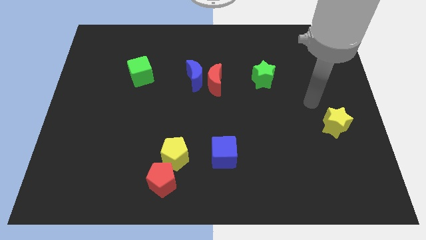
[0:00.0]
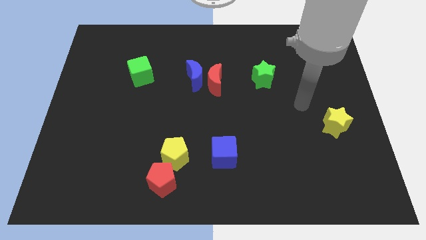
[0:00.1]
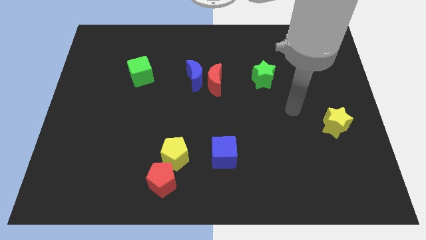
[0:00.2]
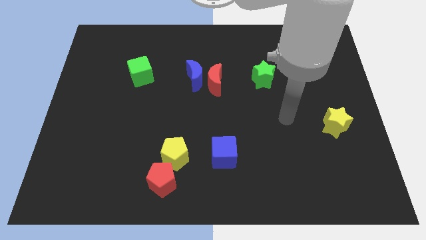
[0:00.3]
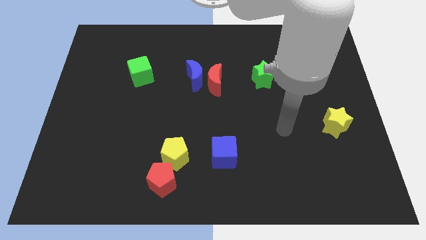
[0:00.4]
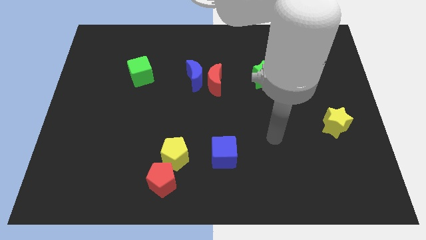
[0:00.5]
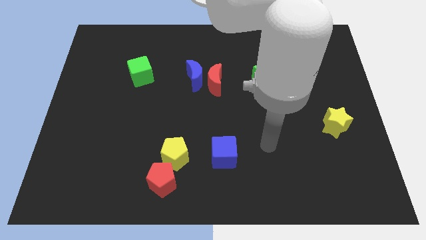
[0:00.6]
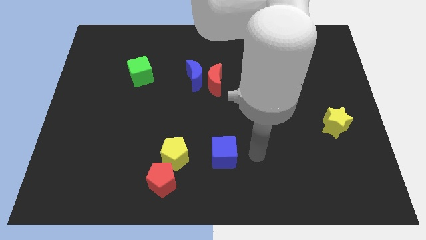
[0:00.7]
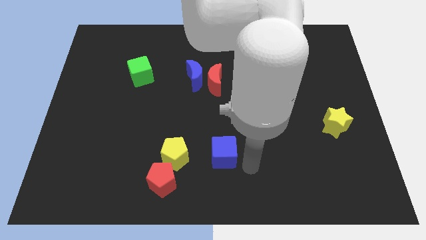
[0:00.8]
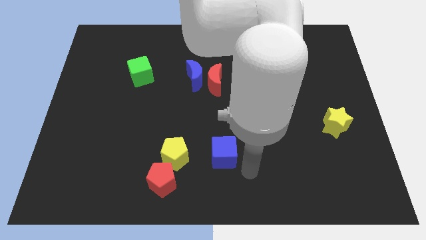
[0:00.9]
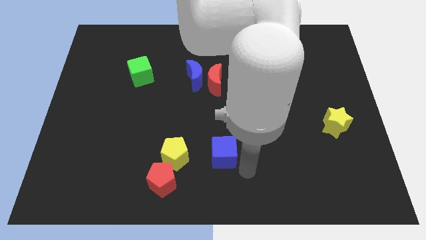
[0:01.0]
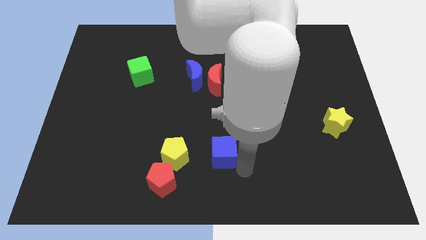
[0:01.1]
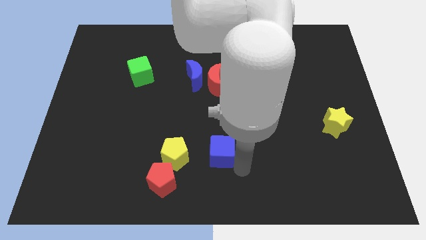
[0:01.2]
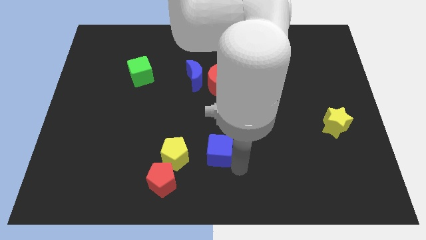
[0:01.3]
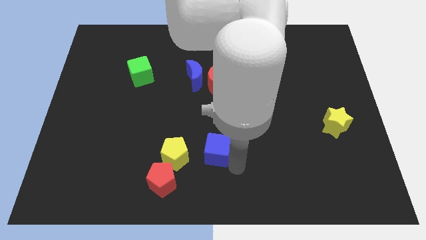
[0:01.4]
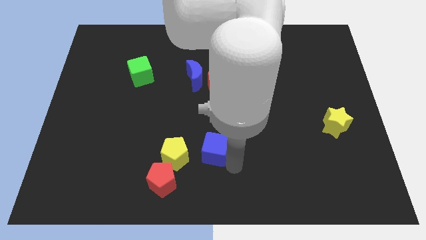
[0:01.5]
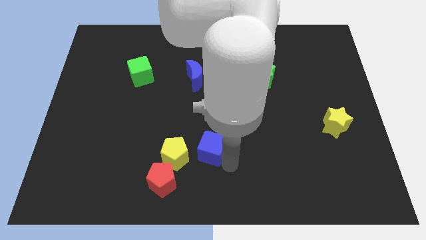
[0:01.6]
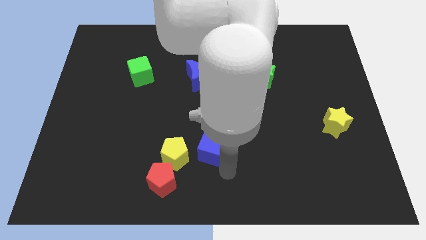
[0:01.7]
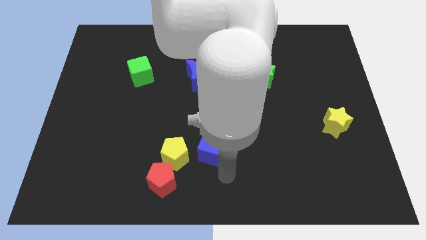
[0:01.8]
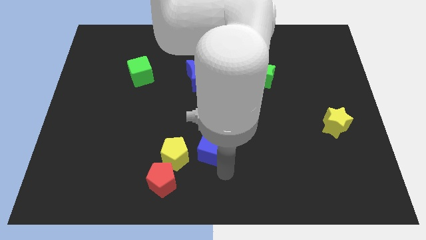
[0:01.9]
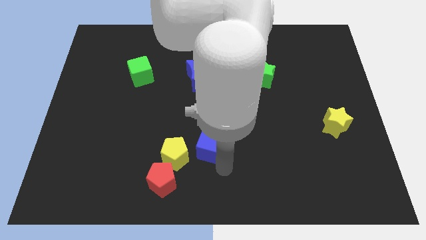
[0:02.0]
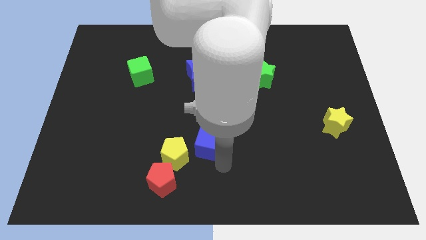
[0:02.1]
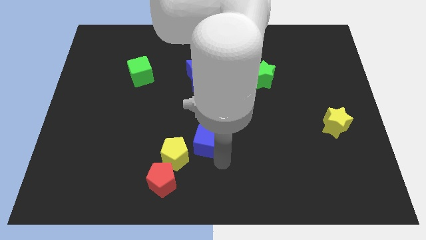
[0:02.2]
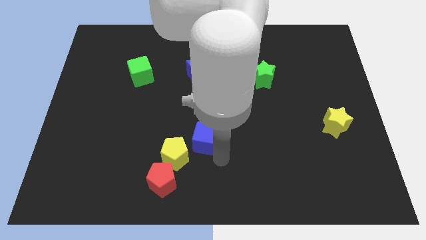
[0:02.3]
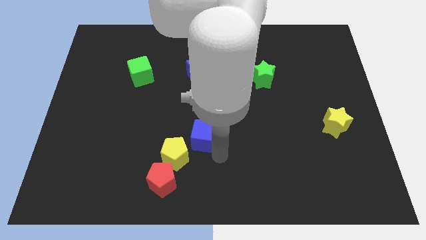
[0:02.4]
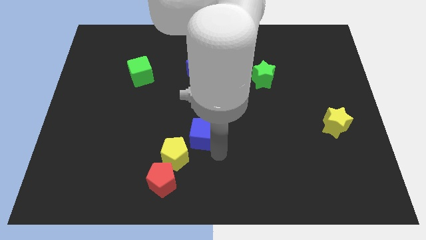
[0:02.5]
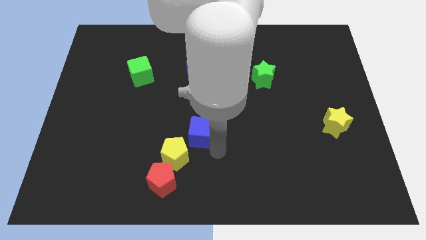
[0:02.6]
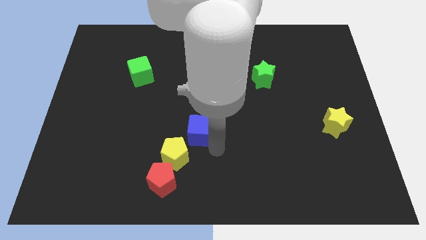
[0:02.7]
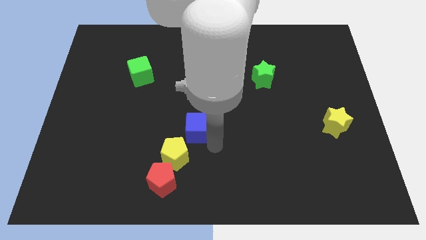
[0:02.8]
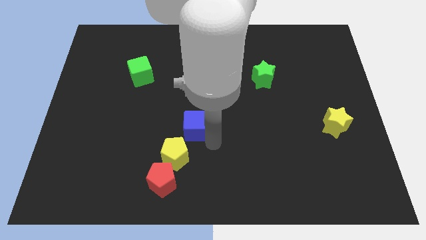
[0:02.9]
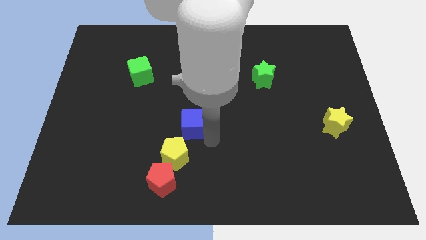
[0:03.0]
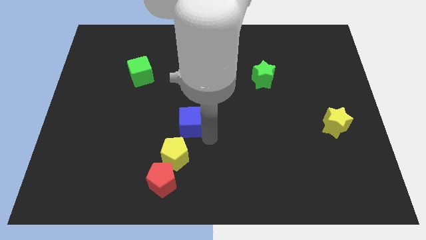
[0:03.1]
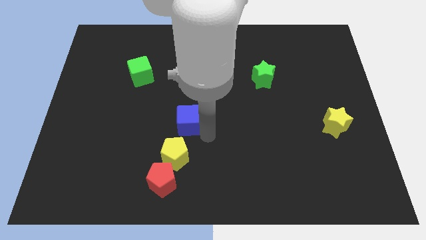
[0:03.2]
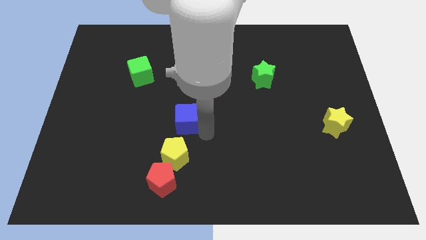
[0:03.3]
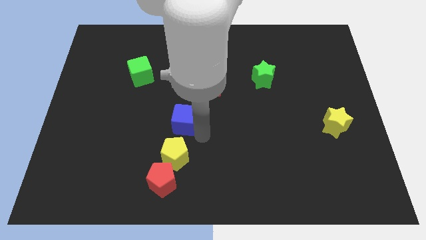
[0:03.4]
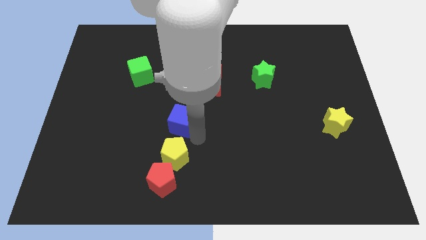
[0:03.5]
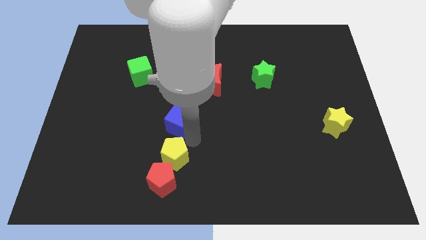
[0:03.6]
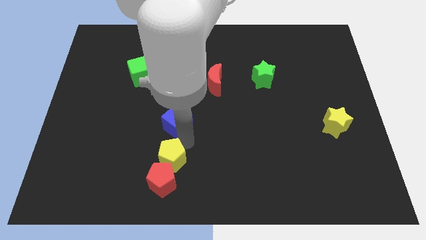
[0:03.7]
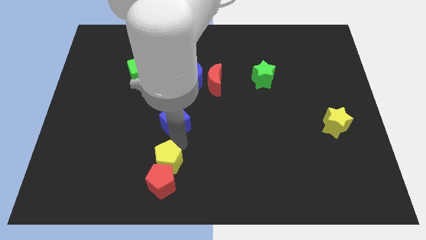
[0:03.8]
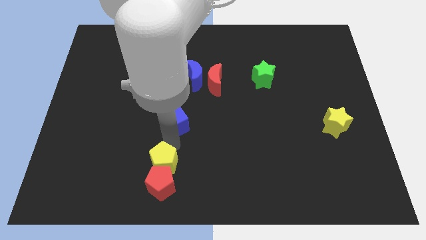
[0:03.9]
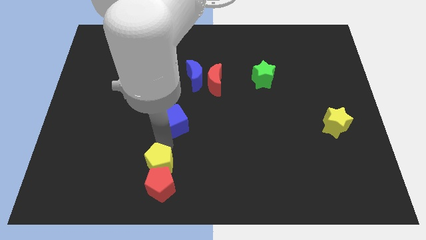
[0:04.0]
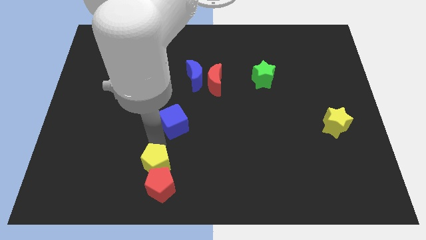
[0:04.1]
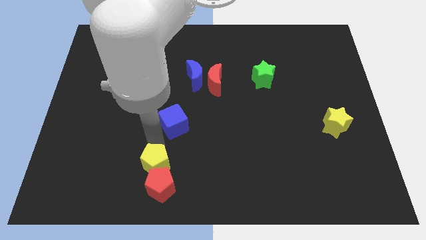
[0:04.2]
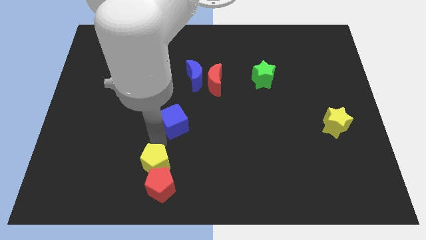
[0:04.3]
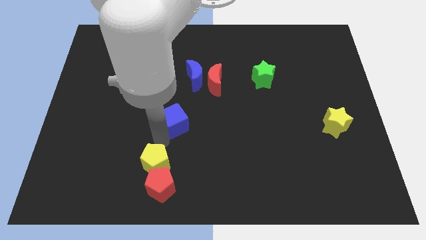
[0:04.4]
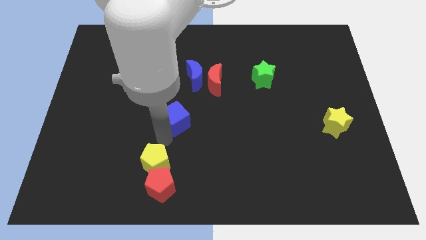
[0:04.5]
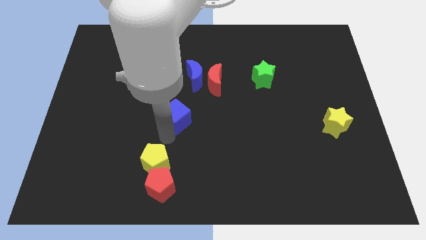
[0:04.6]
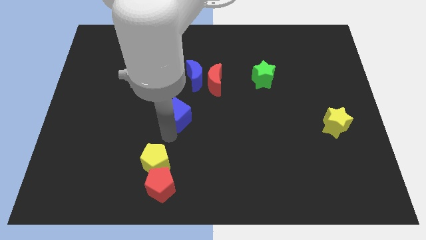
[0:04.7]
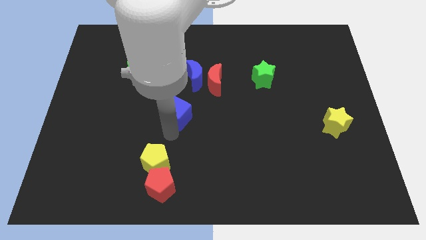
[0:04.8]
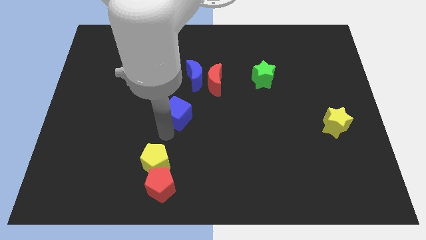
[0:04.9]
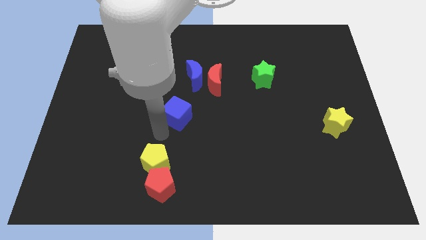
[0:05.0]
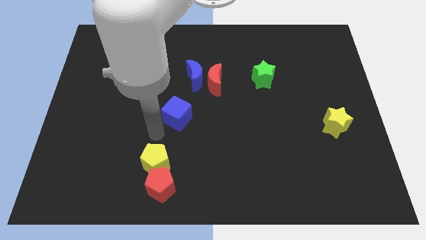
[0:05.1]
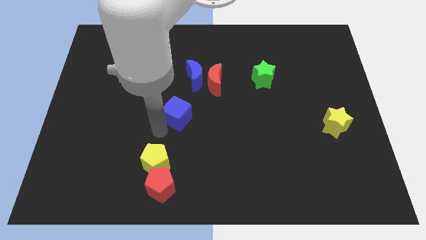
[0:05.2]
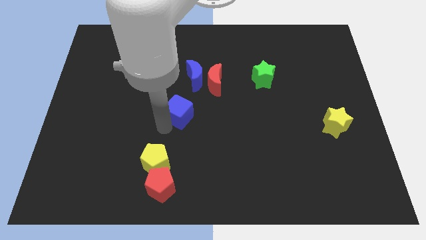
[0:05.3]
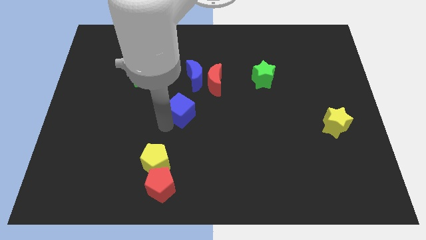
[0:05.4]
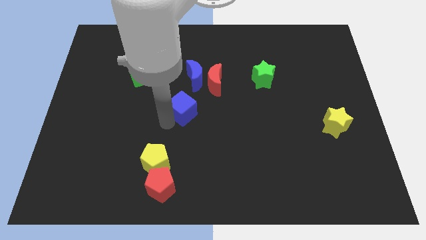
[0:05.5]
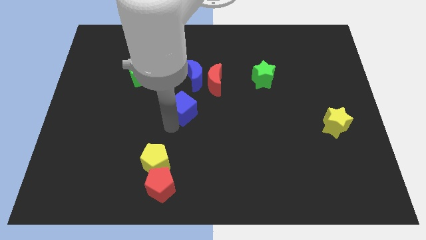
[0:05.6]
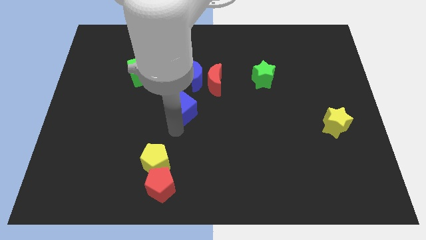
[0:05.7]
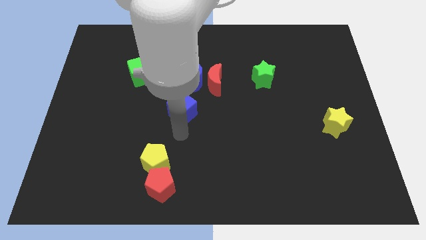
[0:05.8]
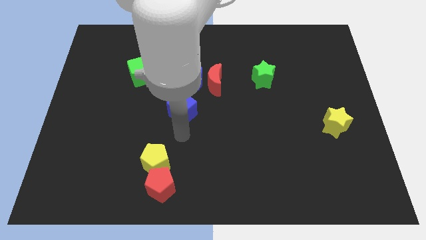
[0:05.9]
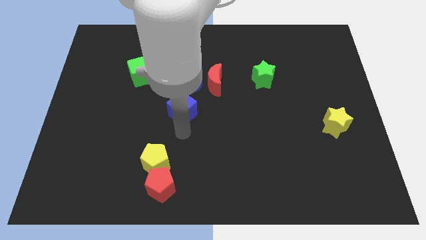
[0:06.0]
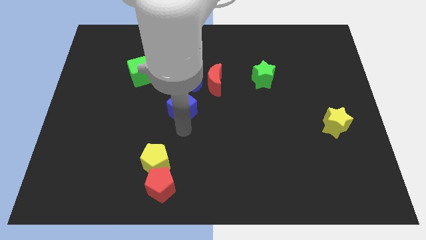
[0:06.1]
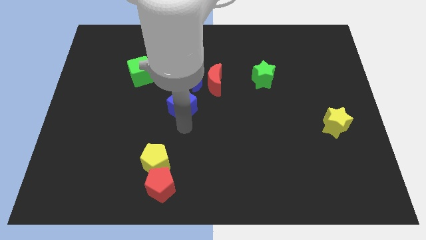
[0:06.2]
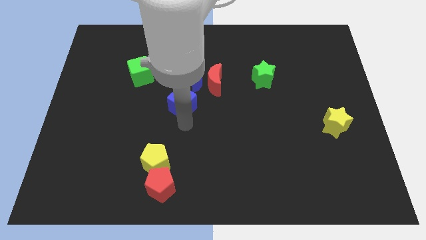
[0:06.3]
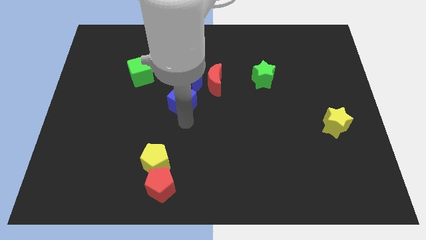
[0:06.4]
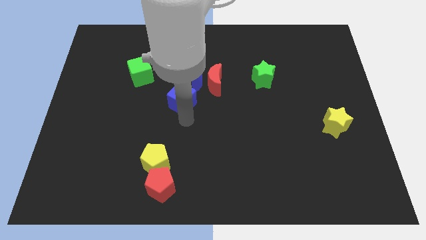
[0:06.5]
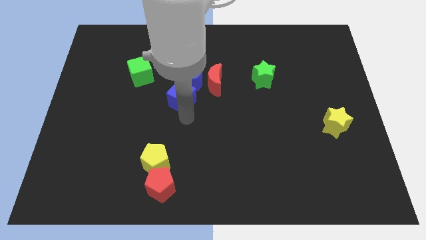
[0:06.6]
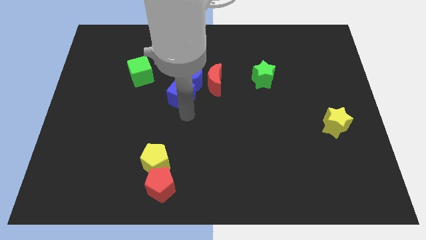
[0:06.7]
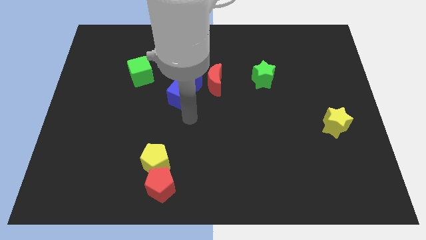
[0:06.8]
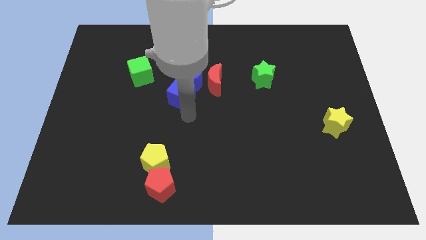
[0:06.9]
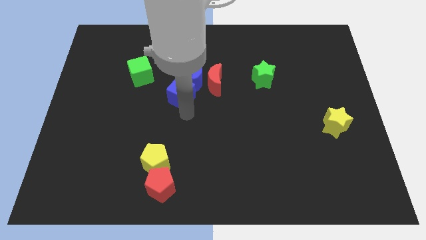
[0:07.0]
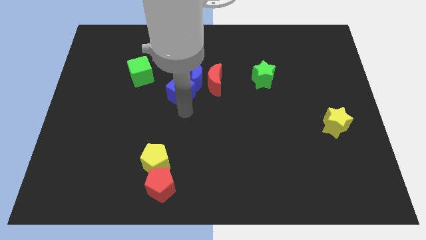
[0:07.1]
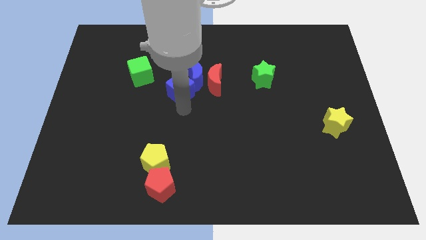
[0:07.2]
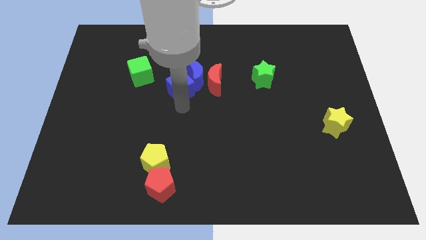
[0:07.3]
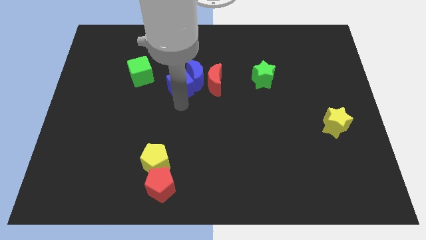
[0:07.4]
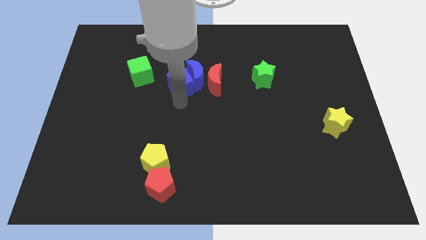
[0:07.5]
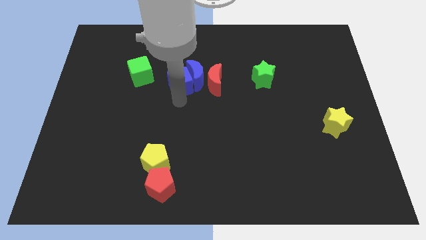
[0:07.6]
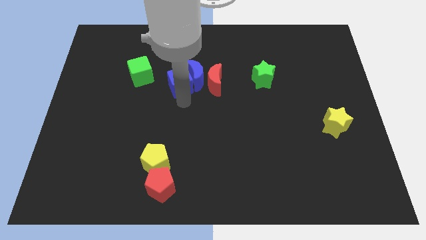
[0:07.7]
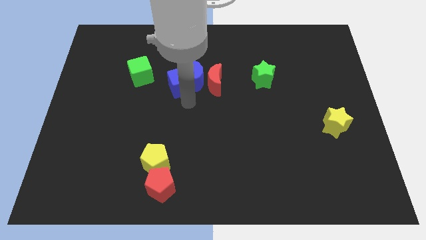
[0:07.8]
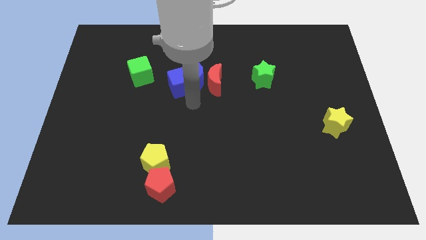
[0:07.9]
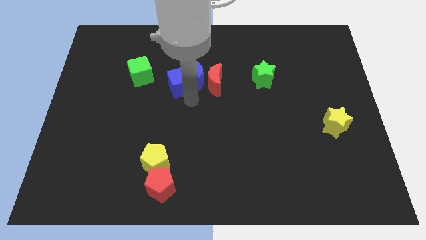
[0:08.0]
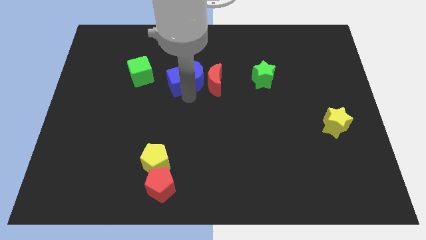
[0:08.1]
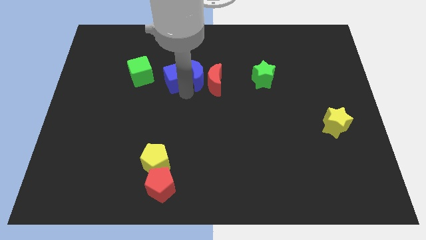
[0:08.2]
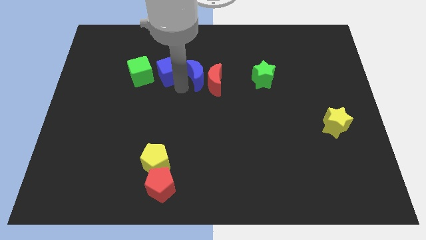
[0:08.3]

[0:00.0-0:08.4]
move the blue cube to the top right side of the green cube
